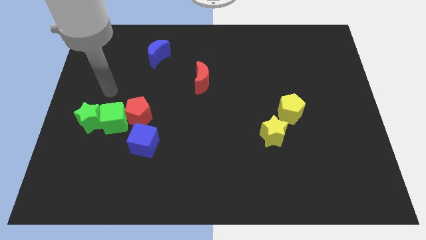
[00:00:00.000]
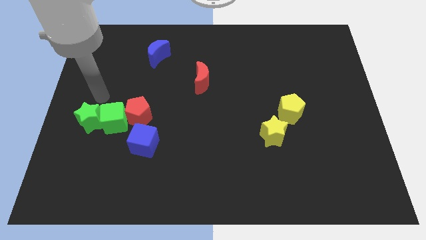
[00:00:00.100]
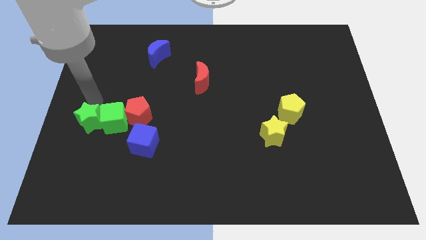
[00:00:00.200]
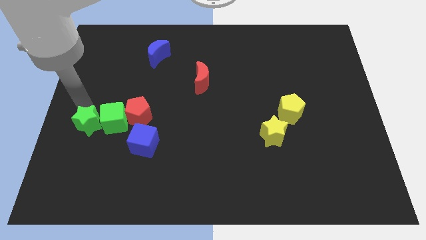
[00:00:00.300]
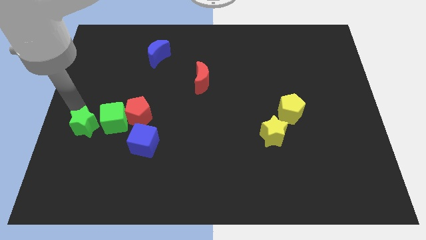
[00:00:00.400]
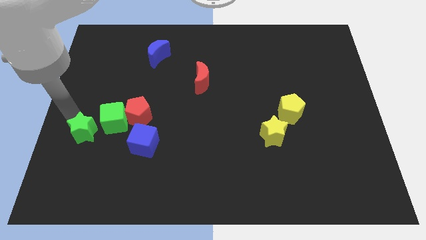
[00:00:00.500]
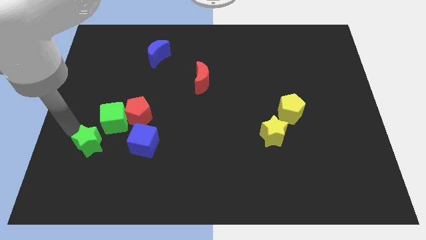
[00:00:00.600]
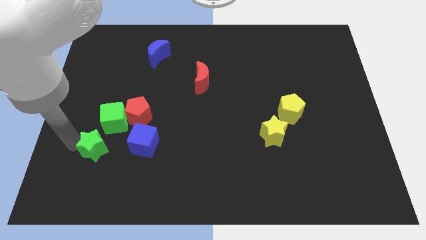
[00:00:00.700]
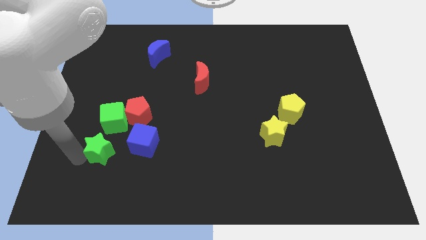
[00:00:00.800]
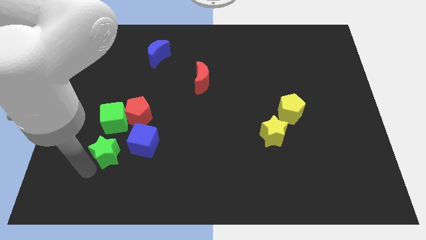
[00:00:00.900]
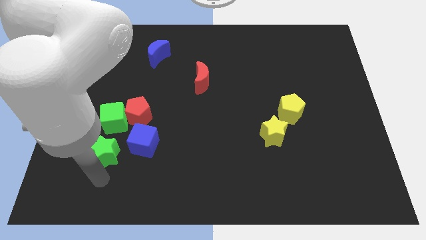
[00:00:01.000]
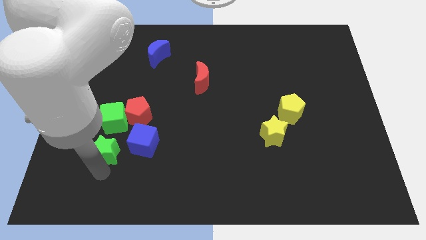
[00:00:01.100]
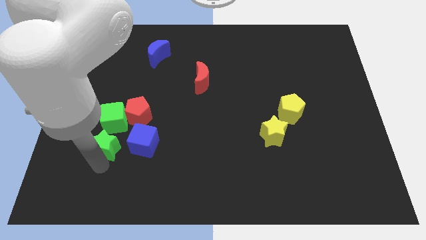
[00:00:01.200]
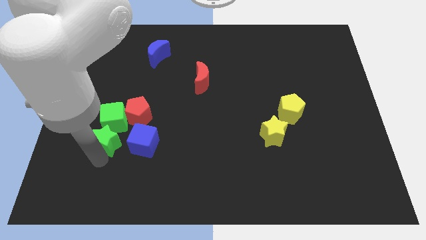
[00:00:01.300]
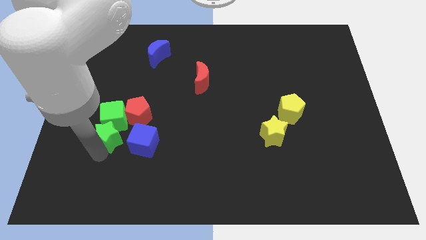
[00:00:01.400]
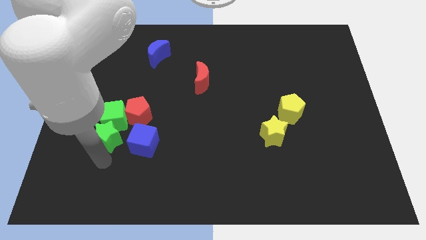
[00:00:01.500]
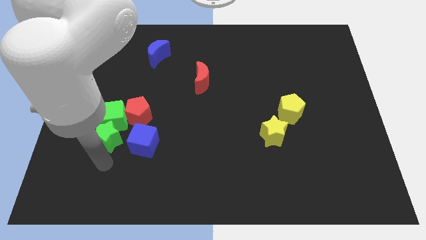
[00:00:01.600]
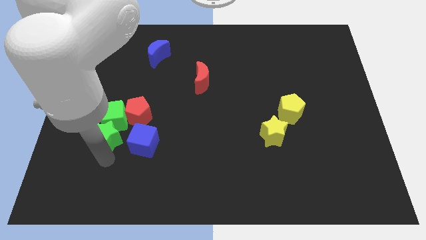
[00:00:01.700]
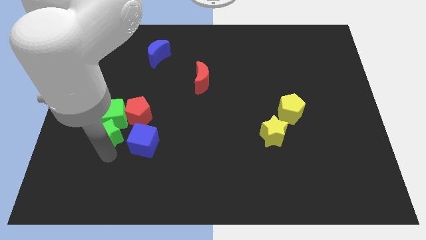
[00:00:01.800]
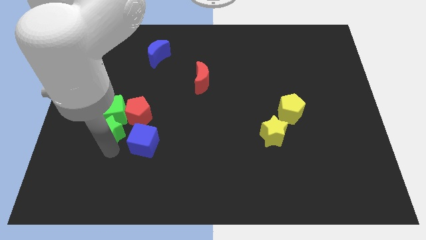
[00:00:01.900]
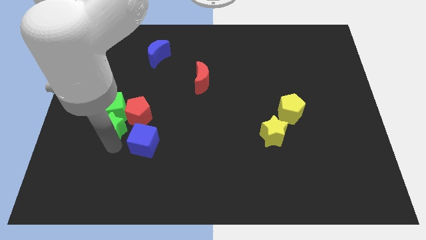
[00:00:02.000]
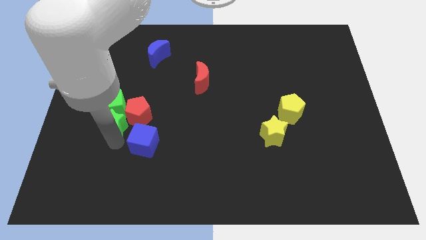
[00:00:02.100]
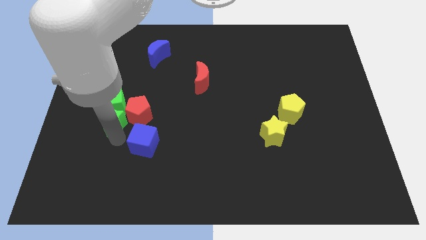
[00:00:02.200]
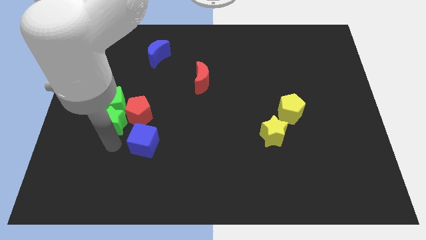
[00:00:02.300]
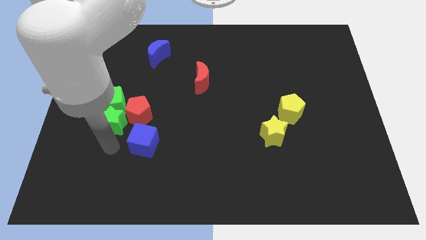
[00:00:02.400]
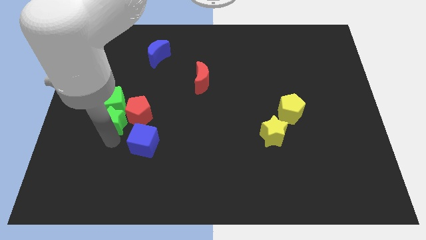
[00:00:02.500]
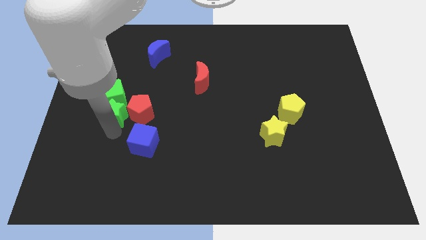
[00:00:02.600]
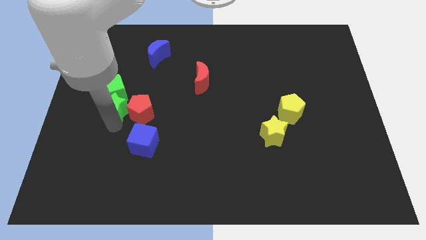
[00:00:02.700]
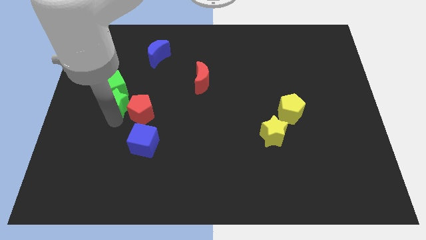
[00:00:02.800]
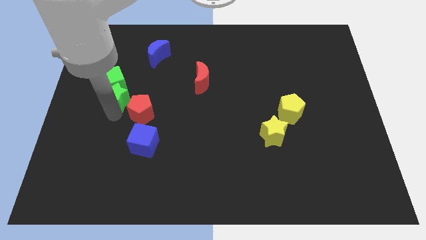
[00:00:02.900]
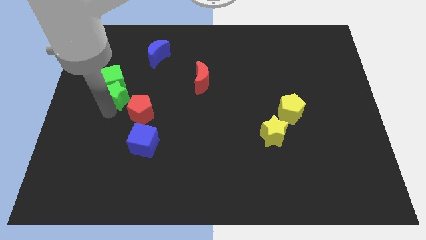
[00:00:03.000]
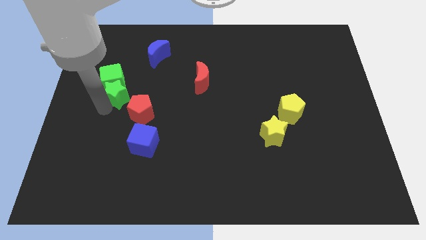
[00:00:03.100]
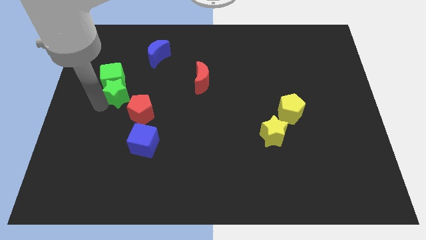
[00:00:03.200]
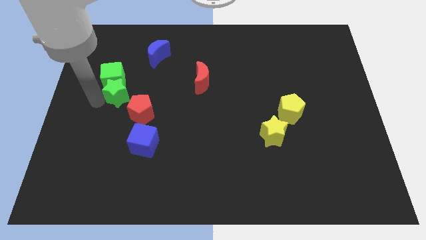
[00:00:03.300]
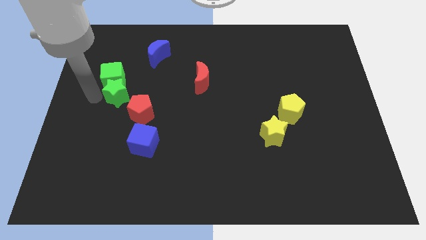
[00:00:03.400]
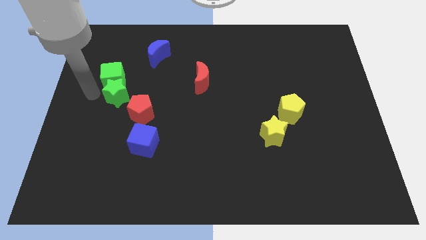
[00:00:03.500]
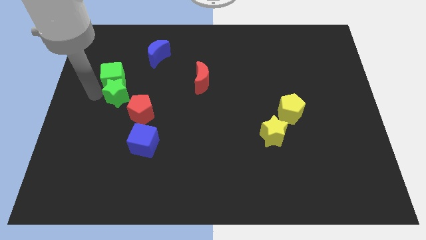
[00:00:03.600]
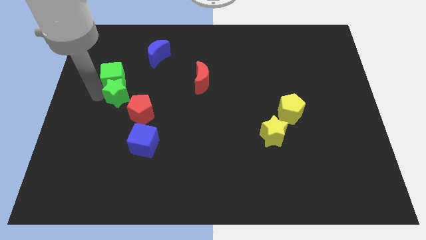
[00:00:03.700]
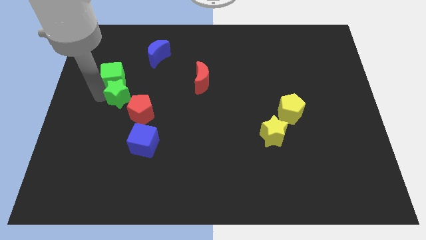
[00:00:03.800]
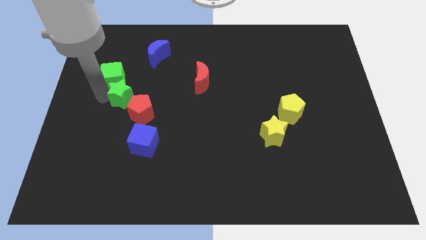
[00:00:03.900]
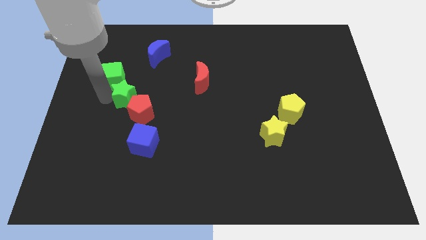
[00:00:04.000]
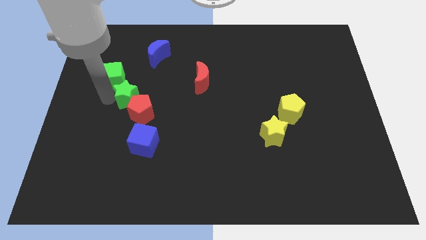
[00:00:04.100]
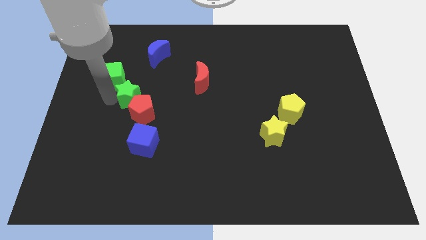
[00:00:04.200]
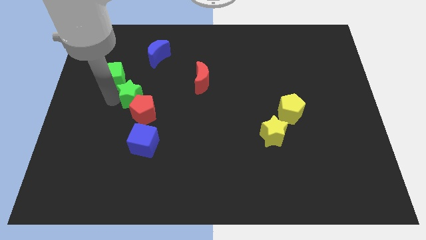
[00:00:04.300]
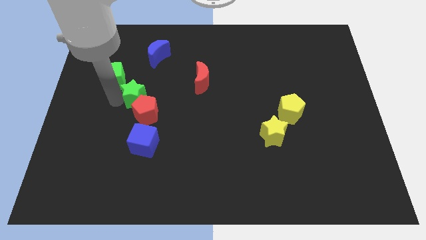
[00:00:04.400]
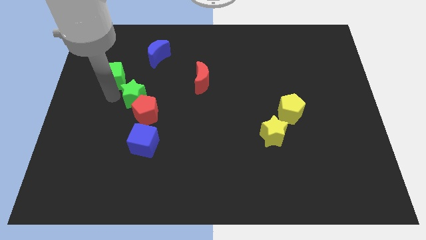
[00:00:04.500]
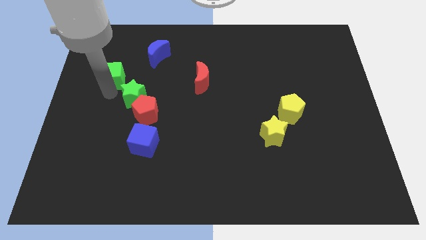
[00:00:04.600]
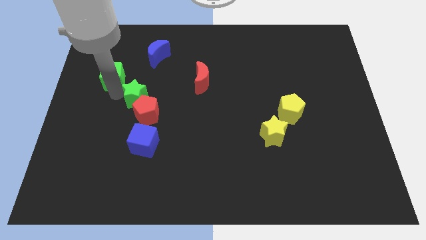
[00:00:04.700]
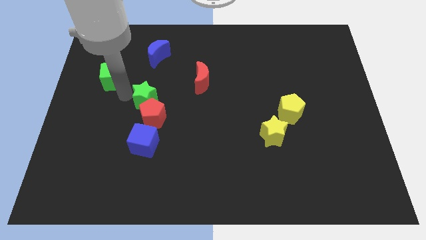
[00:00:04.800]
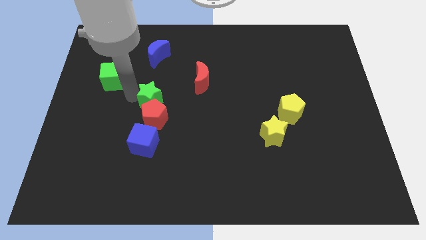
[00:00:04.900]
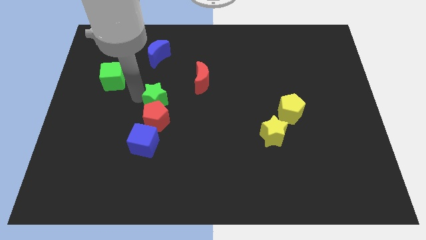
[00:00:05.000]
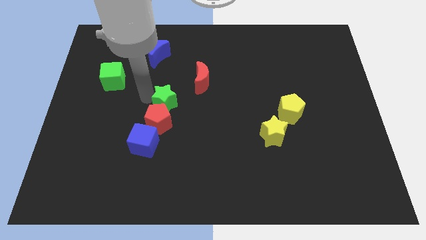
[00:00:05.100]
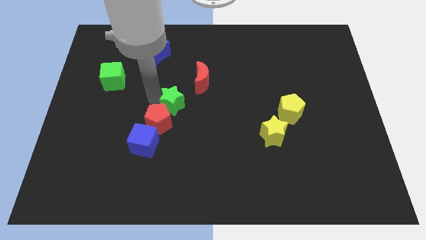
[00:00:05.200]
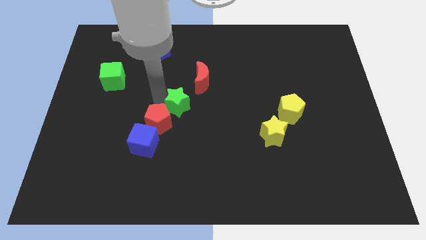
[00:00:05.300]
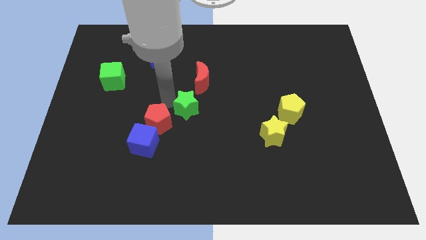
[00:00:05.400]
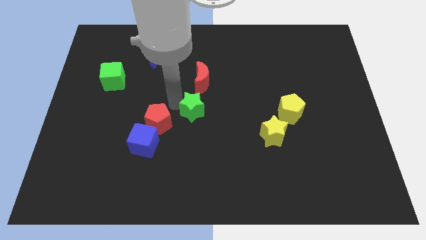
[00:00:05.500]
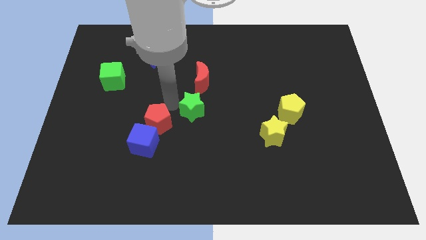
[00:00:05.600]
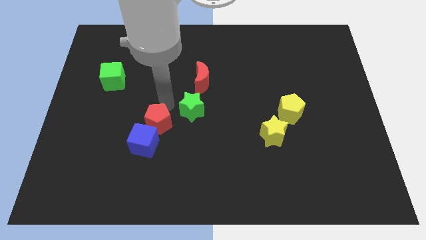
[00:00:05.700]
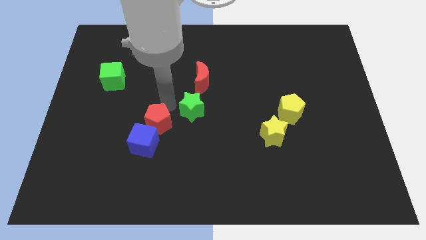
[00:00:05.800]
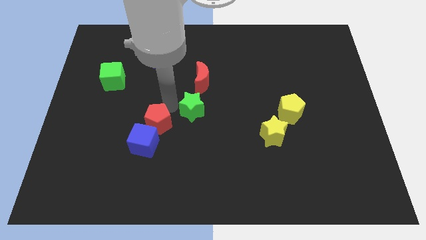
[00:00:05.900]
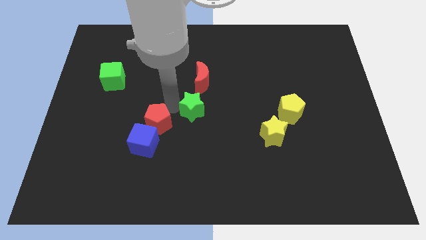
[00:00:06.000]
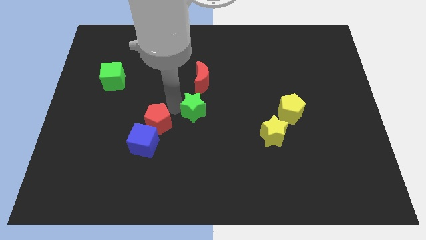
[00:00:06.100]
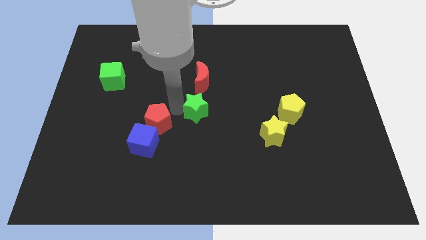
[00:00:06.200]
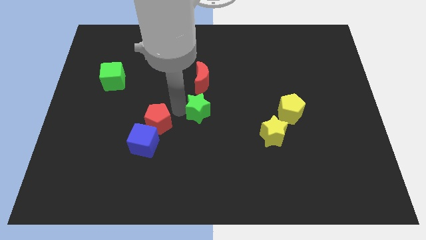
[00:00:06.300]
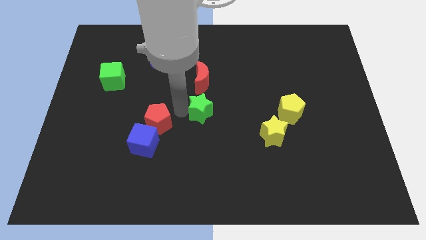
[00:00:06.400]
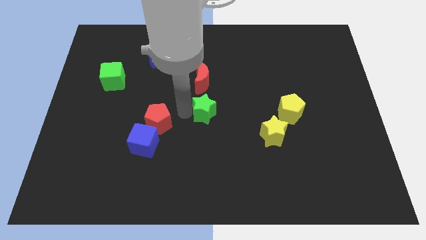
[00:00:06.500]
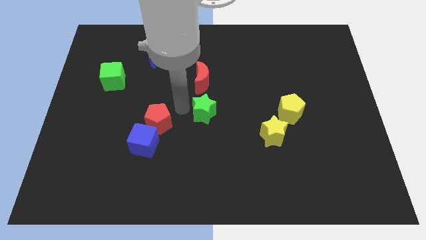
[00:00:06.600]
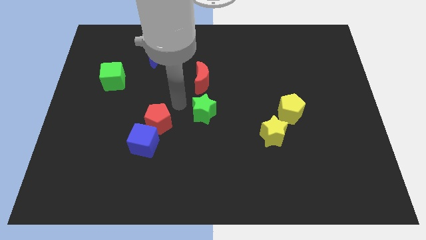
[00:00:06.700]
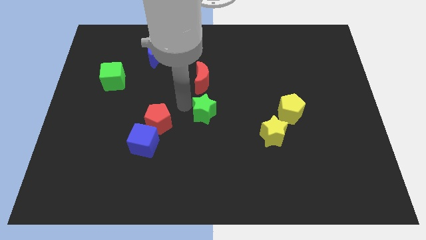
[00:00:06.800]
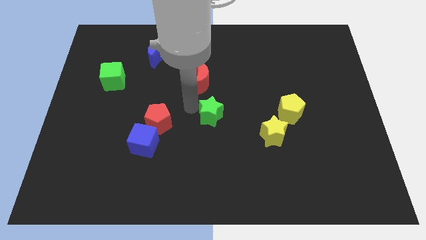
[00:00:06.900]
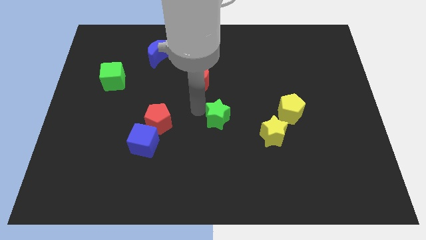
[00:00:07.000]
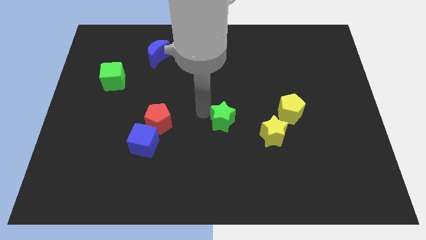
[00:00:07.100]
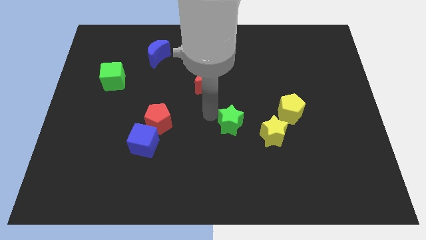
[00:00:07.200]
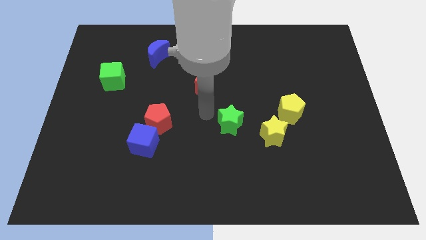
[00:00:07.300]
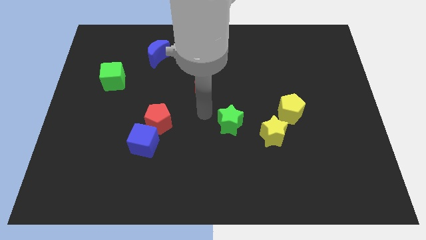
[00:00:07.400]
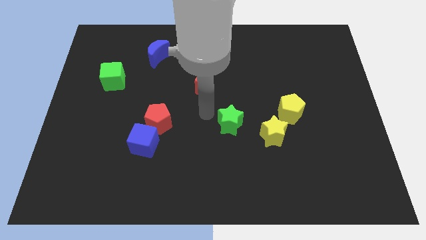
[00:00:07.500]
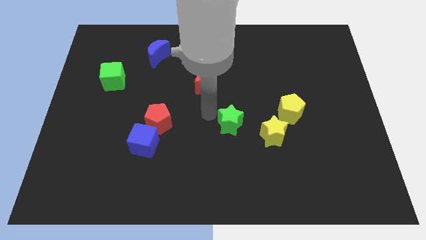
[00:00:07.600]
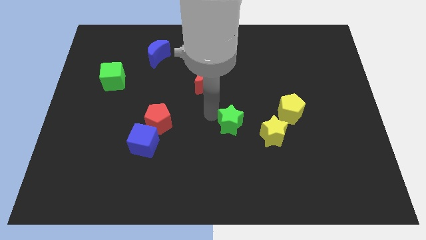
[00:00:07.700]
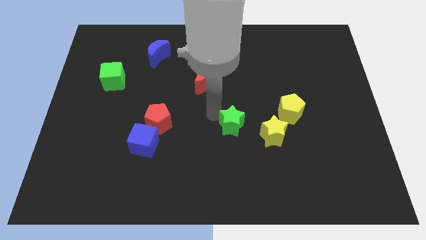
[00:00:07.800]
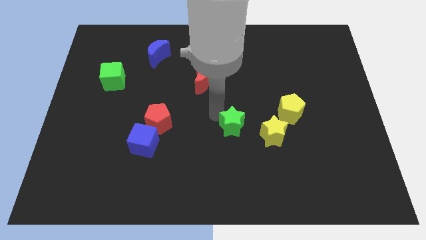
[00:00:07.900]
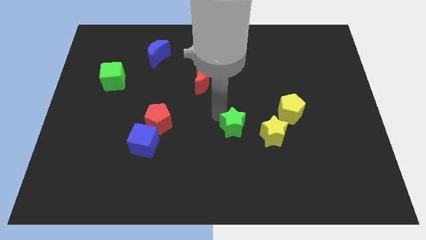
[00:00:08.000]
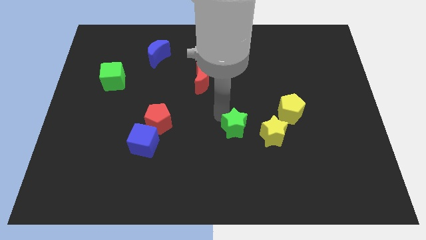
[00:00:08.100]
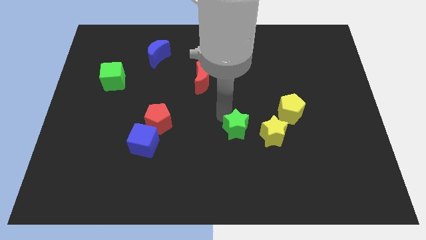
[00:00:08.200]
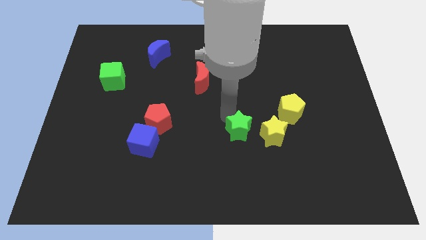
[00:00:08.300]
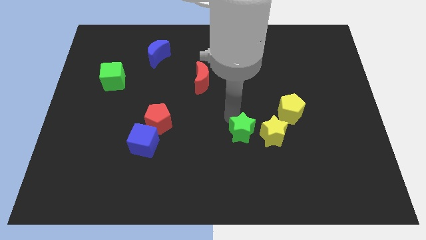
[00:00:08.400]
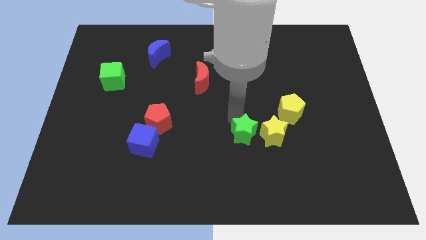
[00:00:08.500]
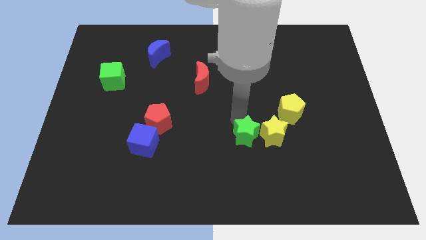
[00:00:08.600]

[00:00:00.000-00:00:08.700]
put the green star close to the yellow star
